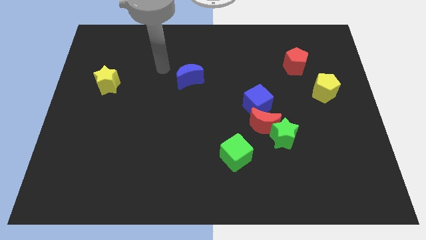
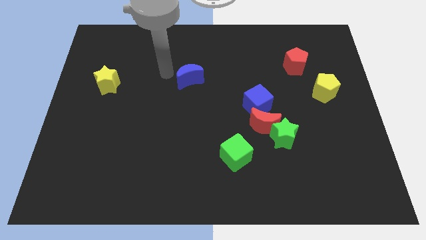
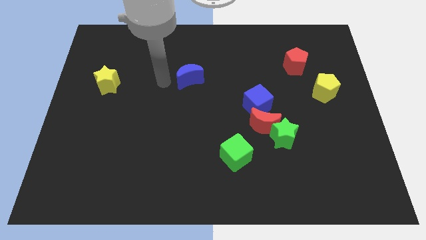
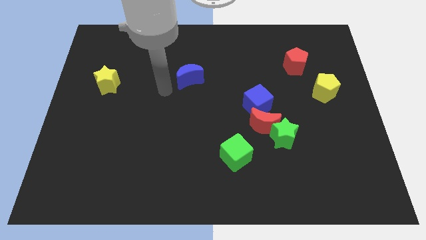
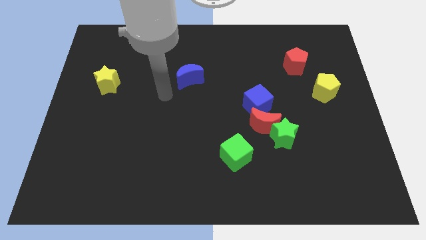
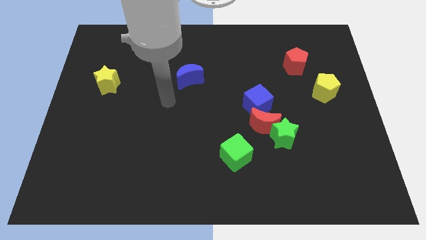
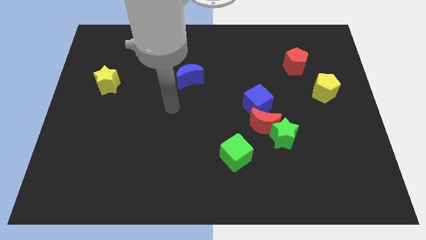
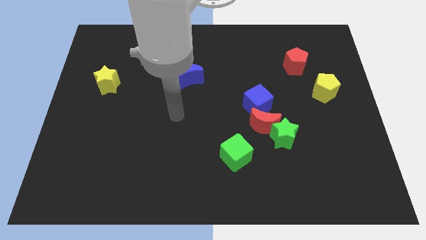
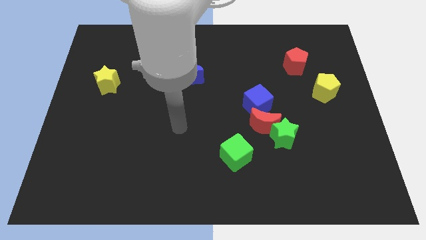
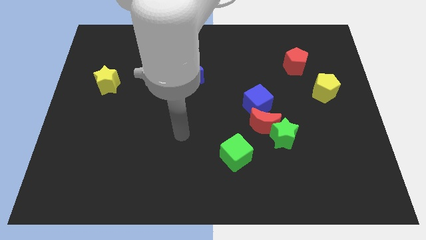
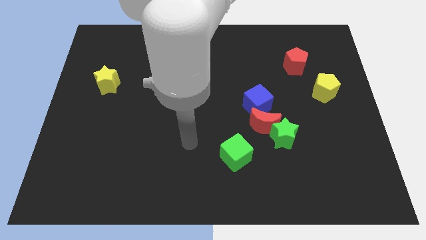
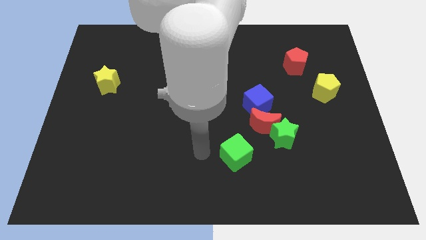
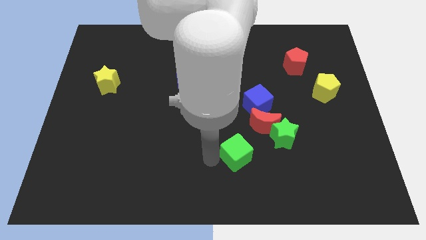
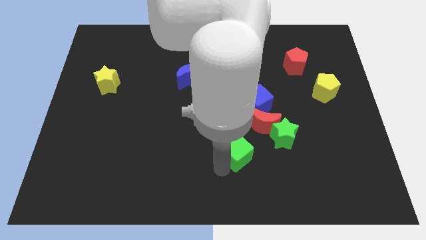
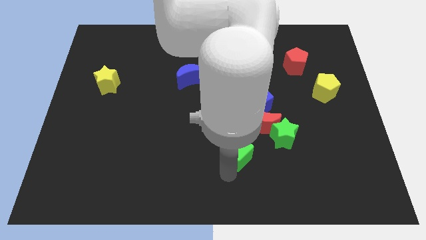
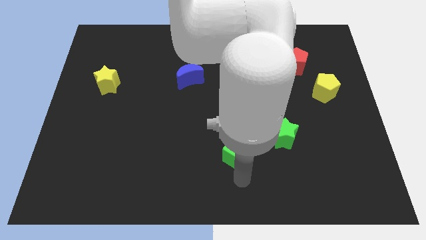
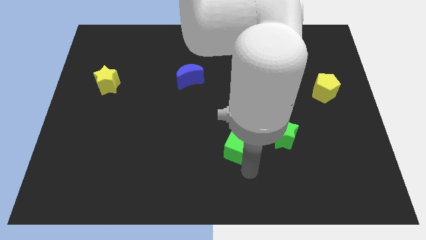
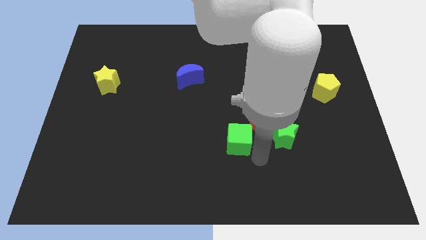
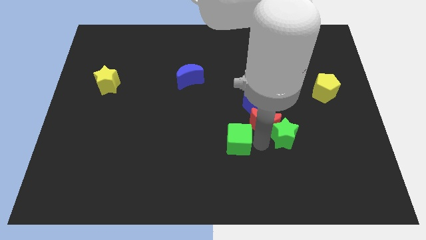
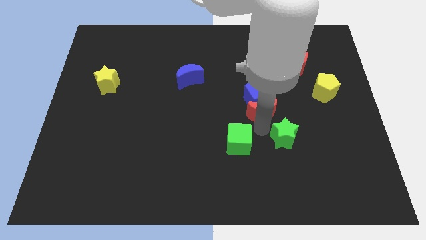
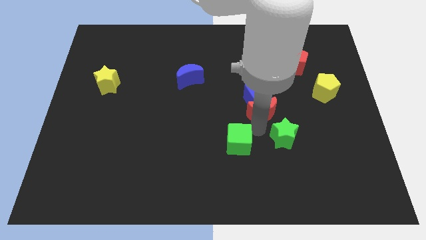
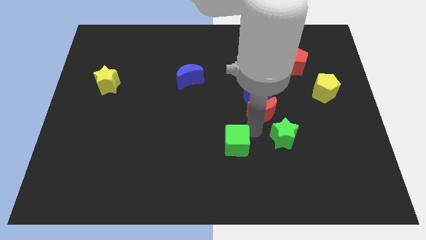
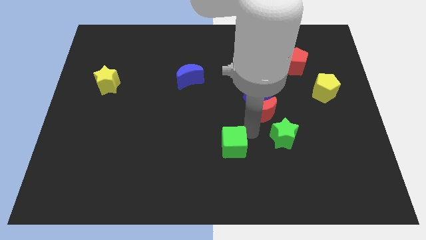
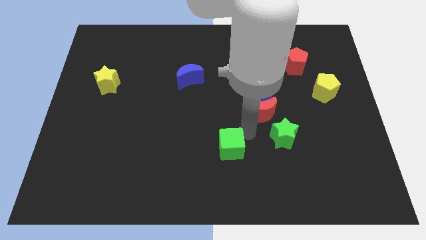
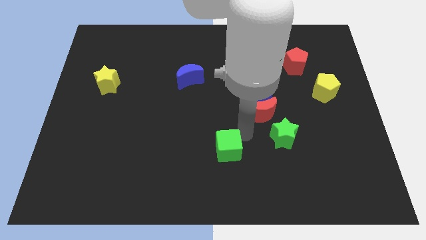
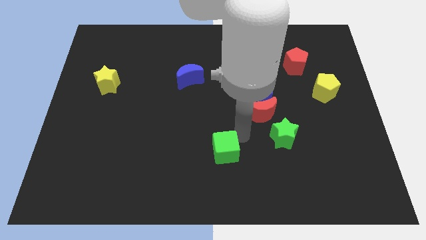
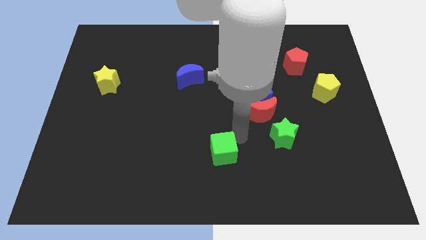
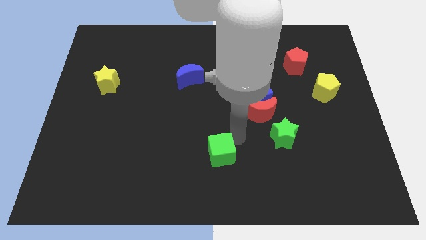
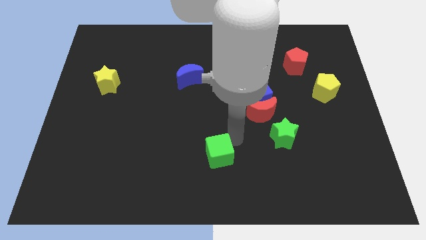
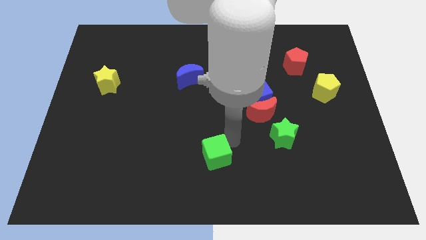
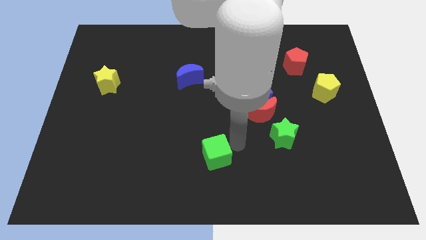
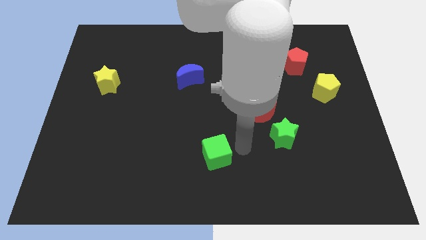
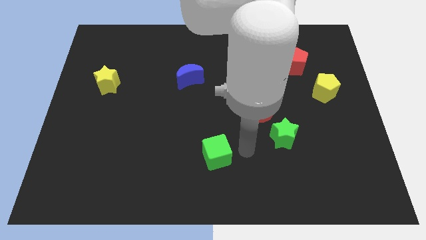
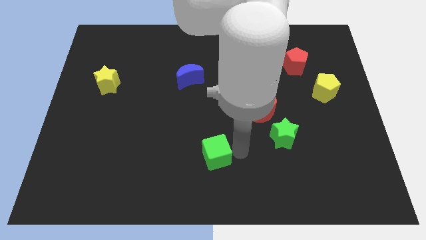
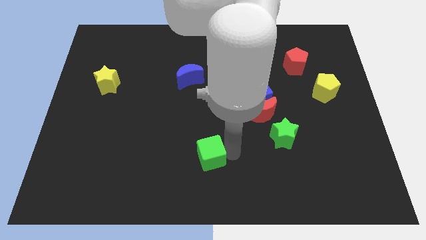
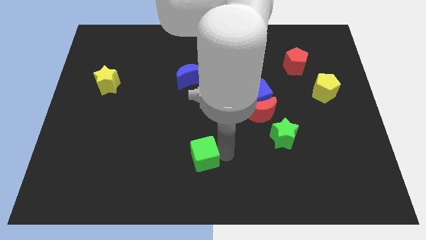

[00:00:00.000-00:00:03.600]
slide the green cube left slightly

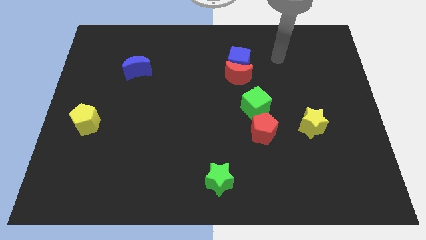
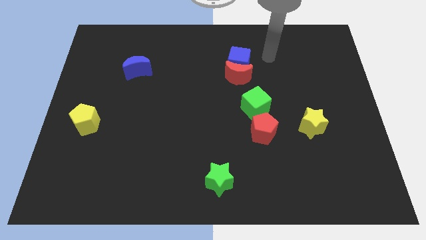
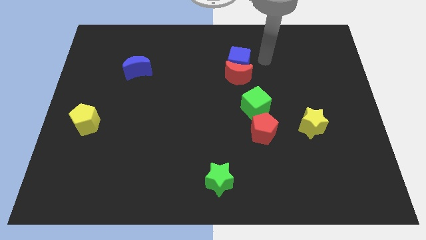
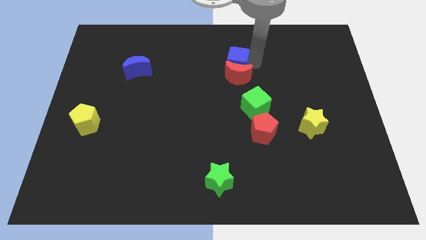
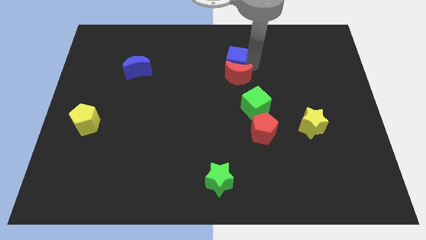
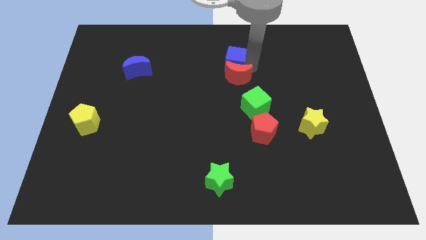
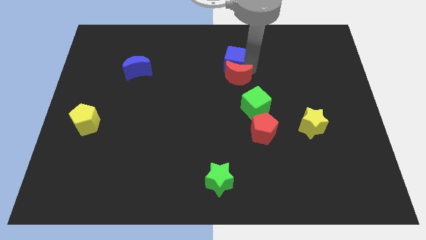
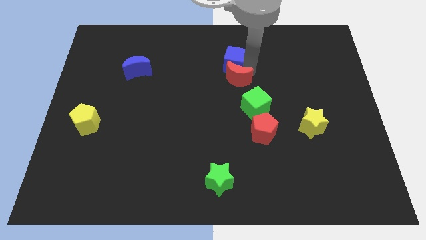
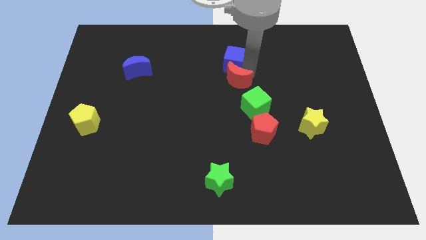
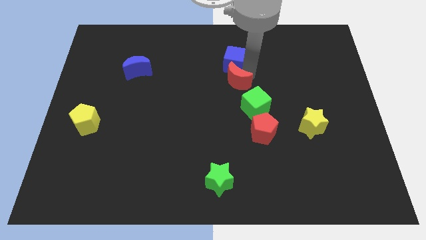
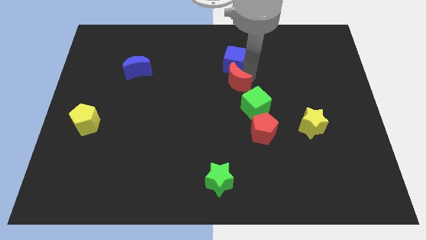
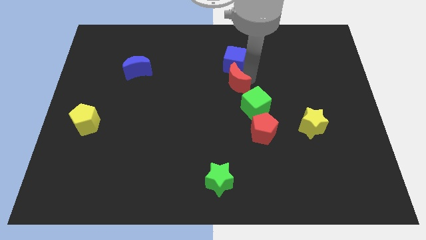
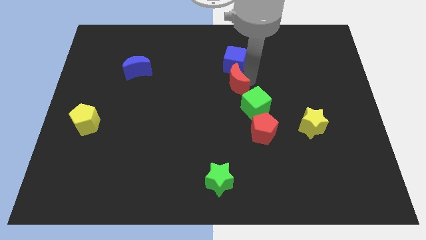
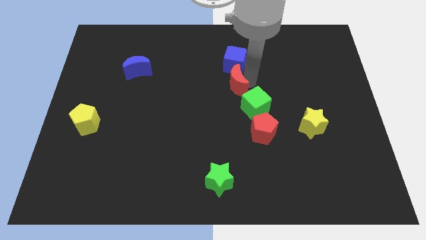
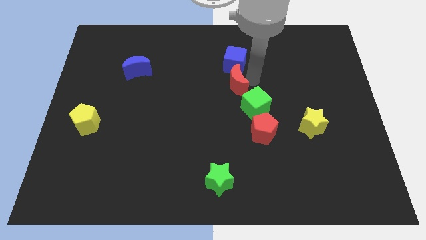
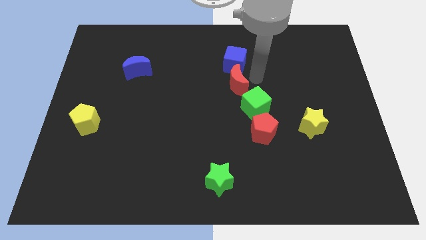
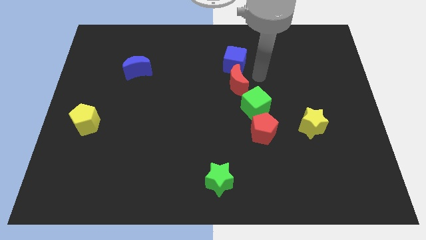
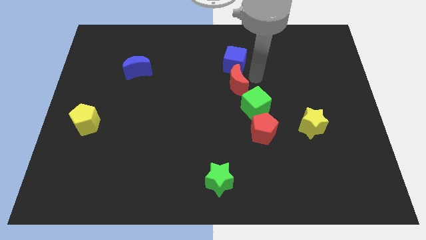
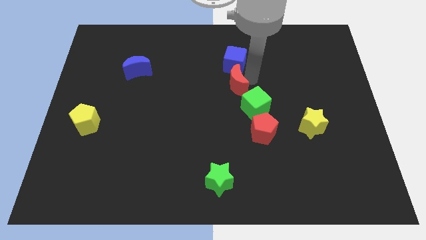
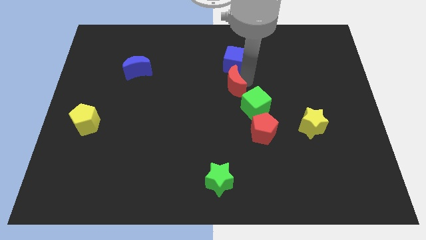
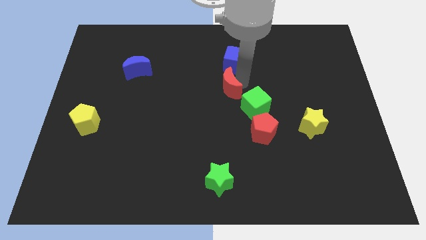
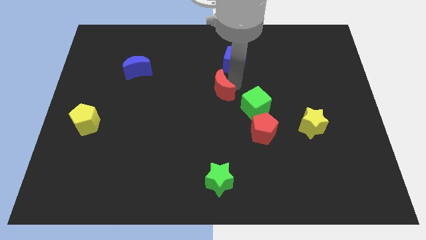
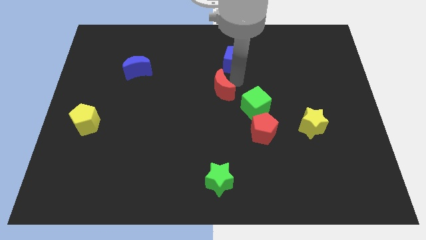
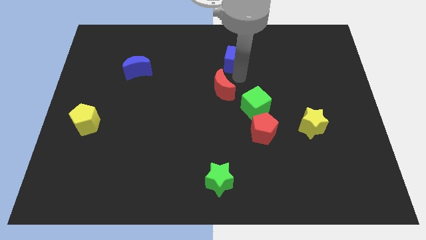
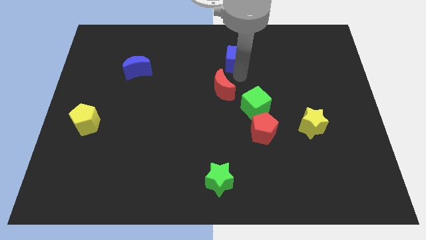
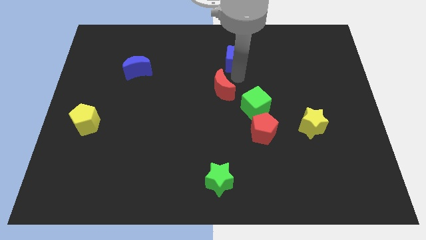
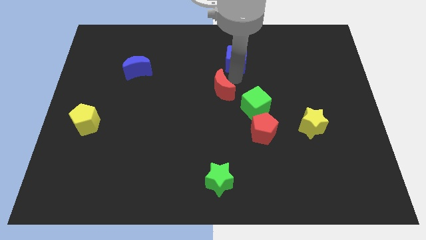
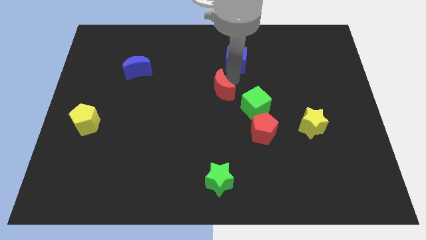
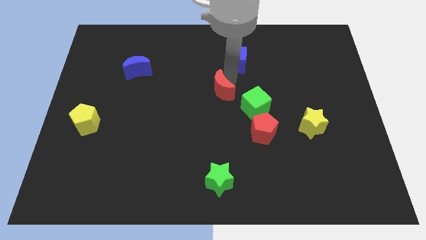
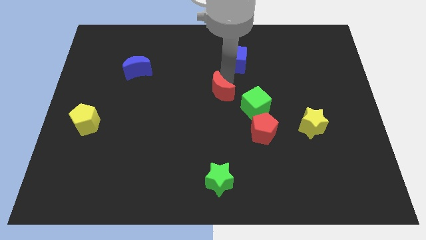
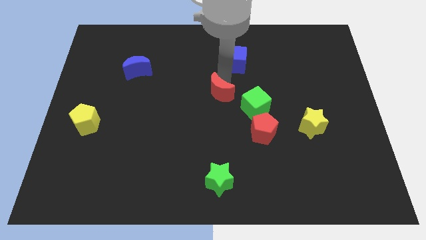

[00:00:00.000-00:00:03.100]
slightly move the red moon down and then to the left

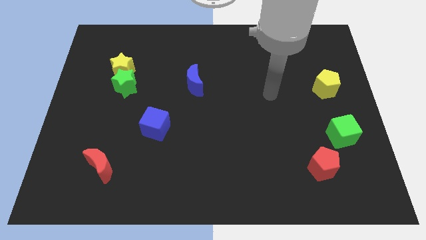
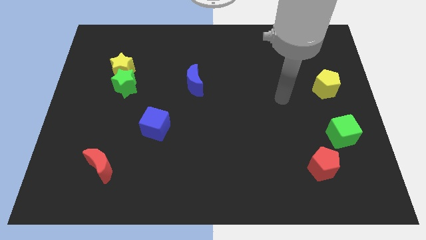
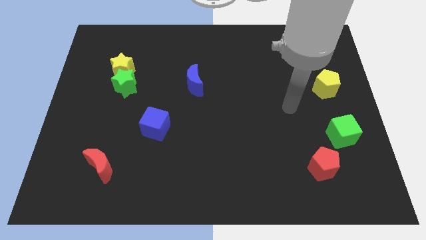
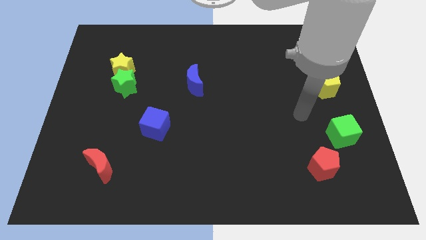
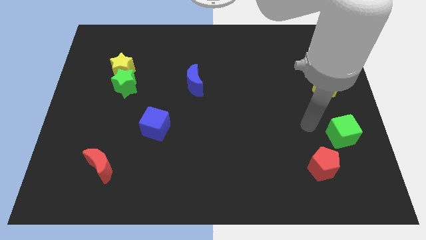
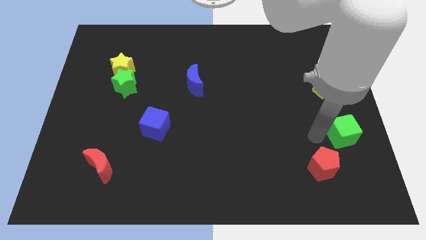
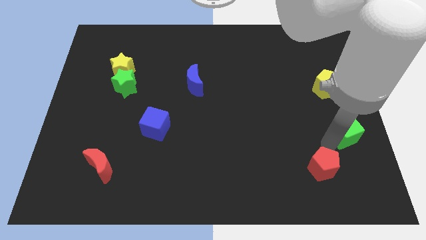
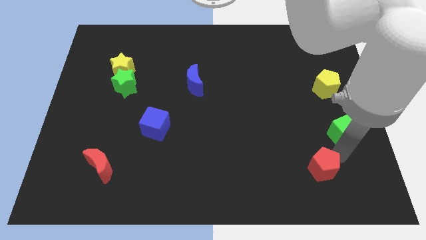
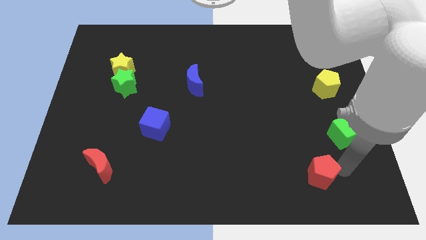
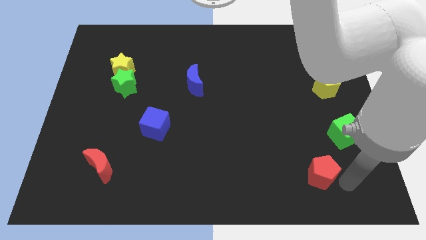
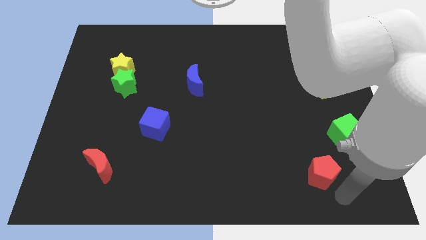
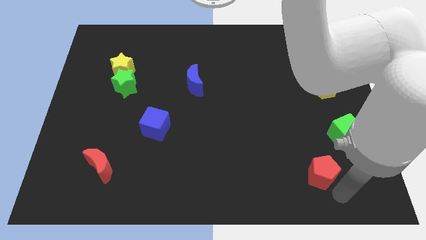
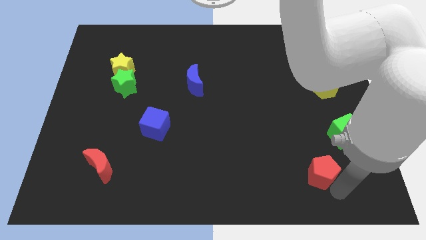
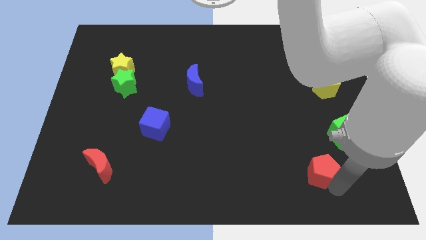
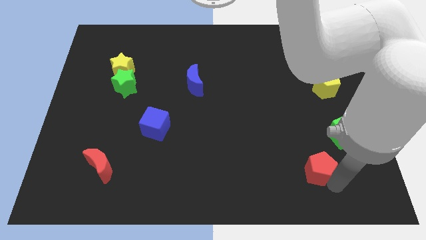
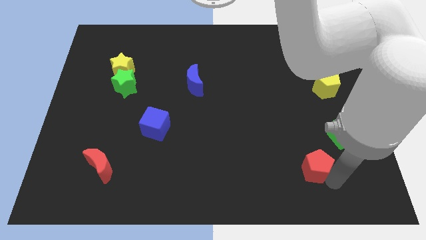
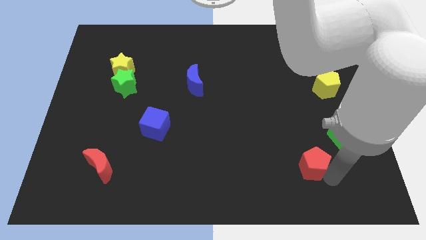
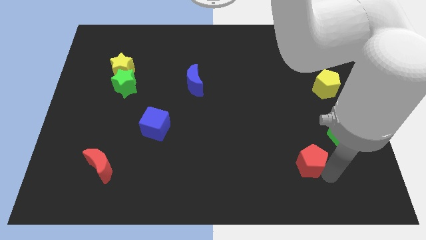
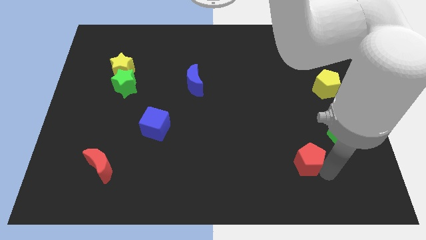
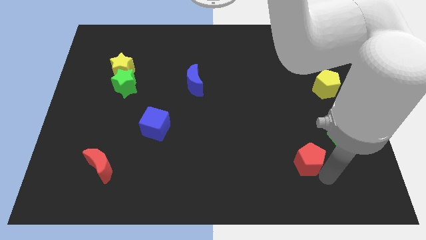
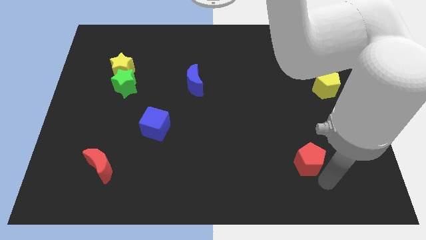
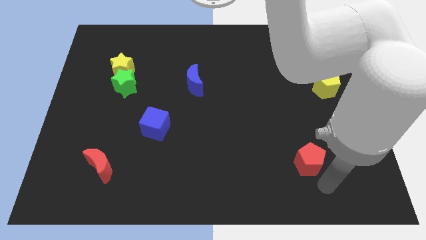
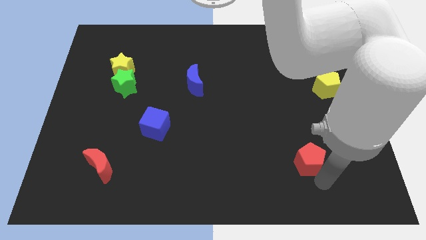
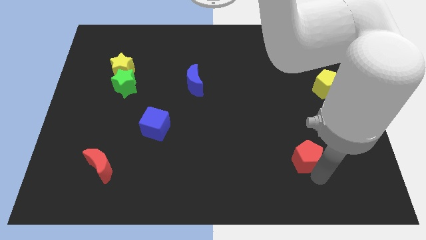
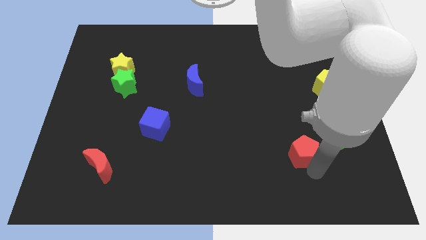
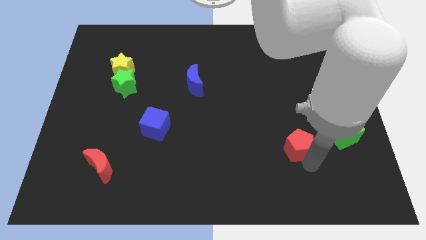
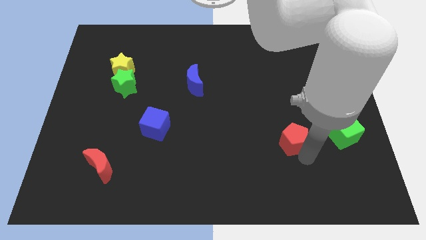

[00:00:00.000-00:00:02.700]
slightly push the red pentagon upwards and to the left diagonally
